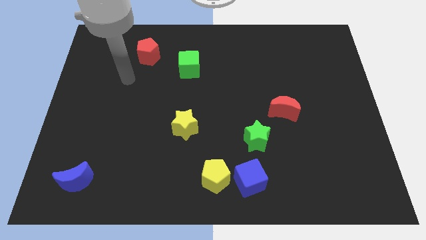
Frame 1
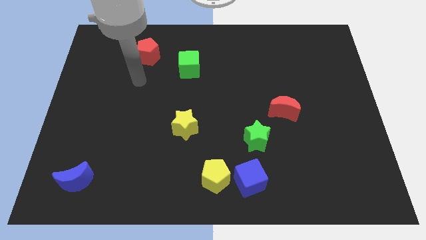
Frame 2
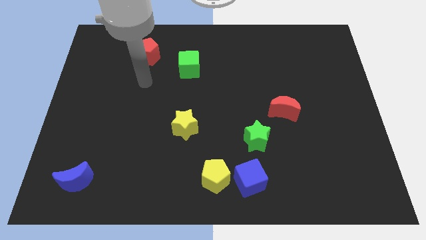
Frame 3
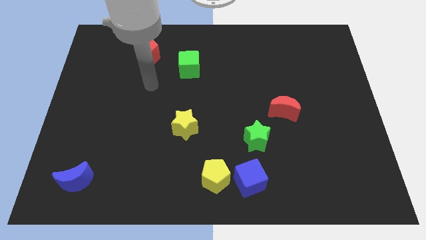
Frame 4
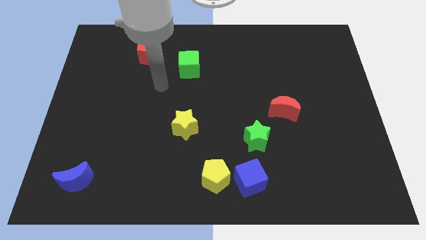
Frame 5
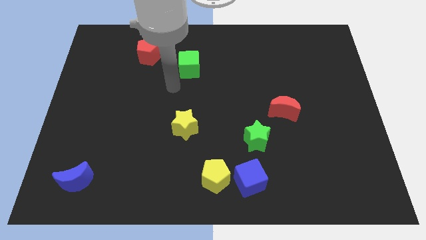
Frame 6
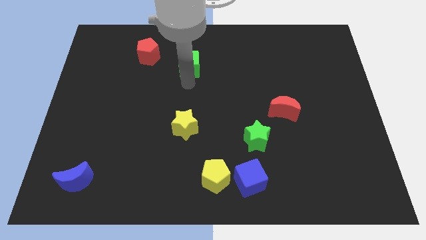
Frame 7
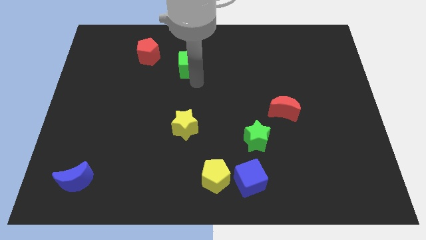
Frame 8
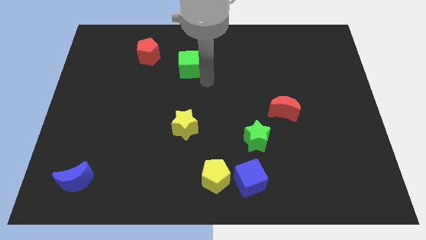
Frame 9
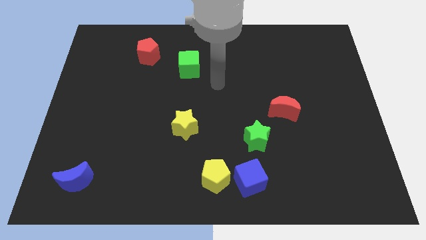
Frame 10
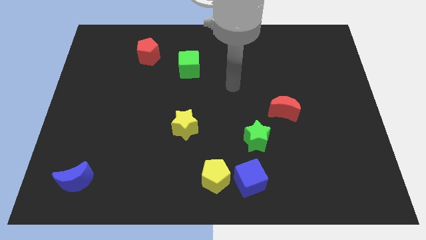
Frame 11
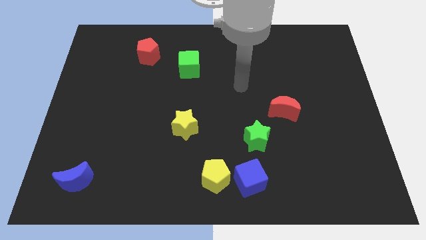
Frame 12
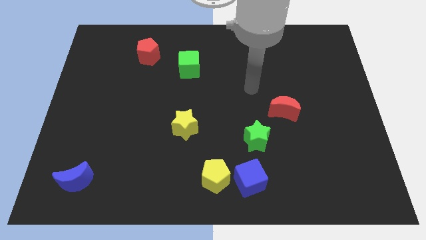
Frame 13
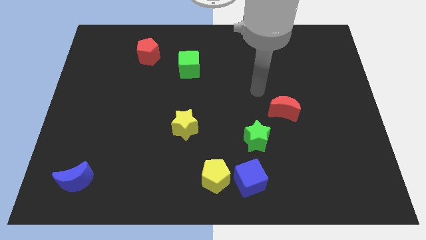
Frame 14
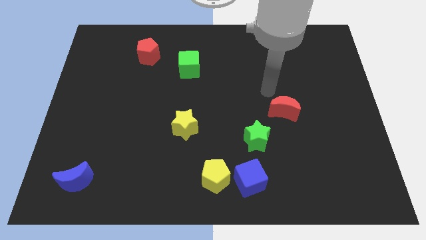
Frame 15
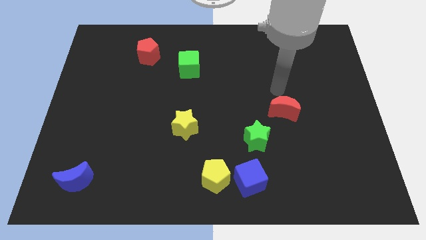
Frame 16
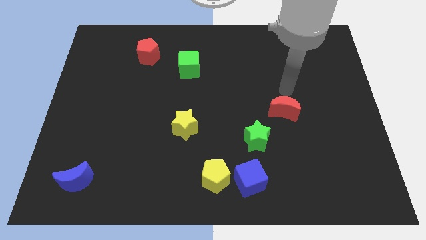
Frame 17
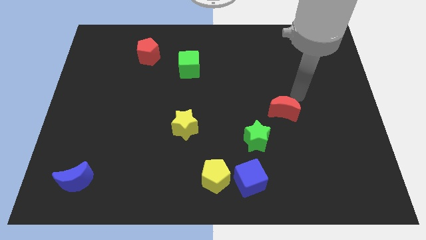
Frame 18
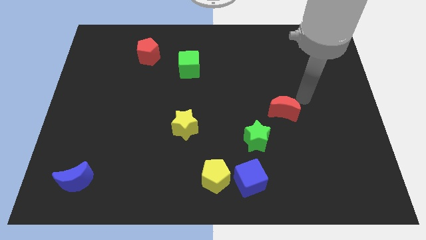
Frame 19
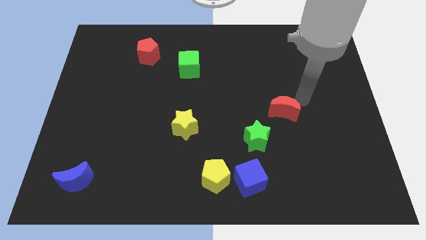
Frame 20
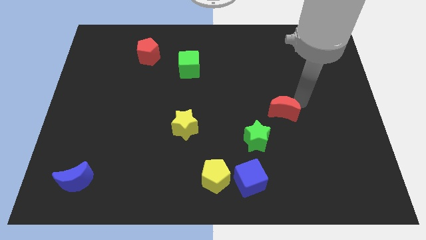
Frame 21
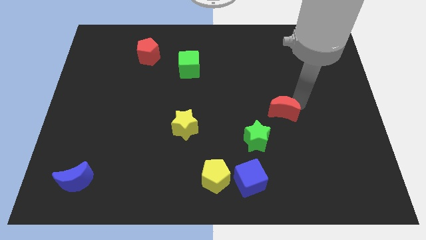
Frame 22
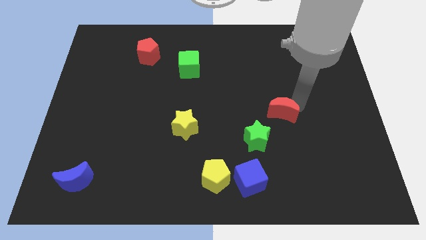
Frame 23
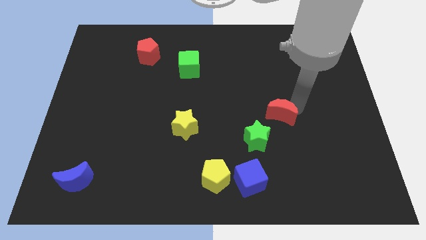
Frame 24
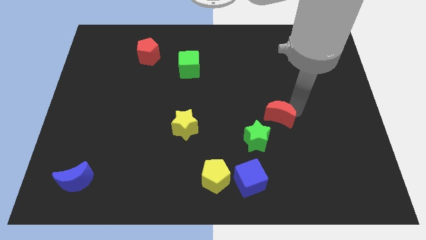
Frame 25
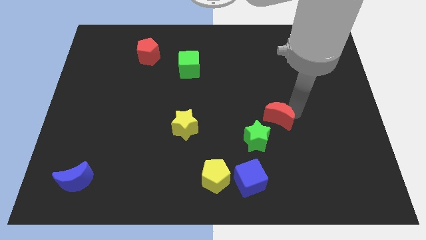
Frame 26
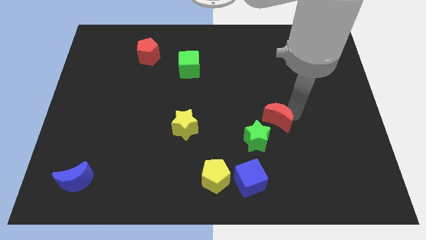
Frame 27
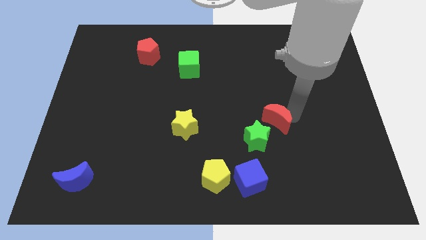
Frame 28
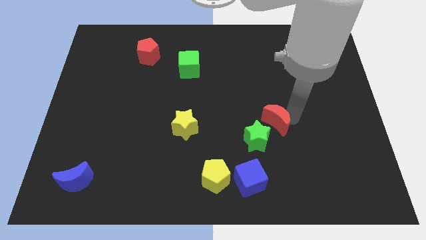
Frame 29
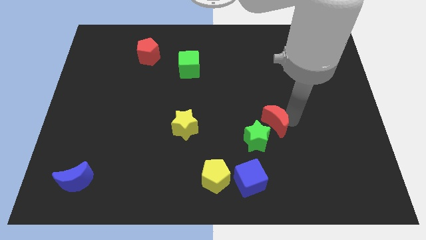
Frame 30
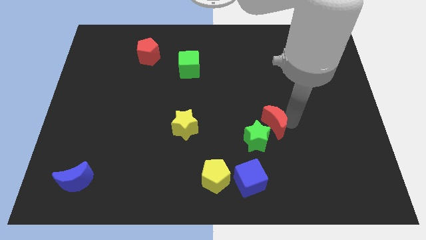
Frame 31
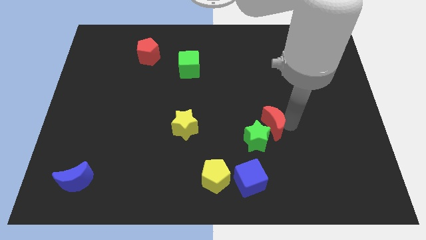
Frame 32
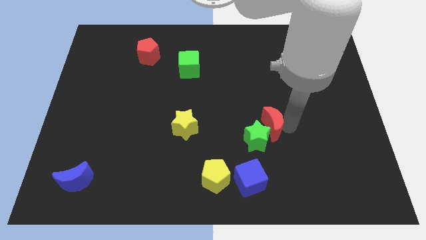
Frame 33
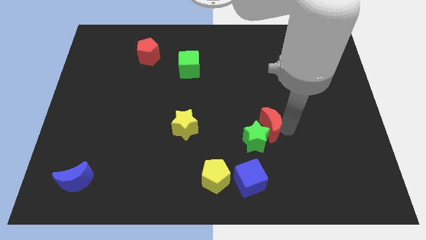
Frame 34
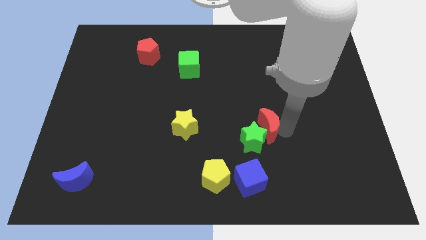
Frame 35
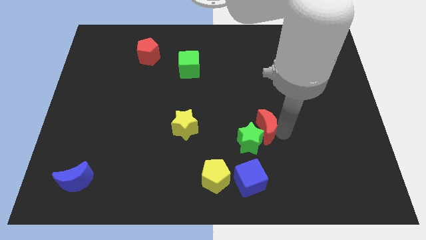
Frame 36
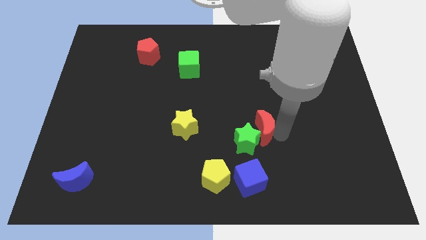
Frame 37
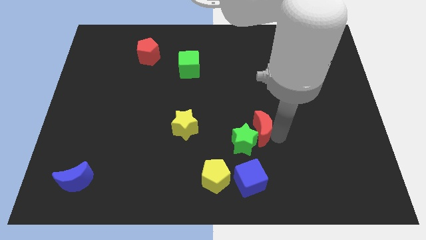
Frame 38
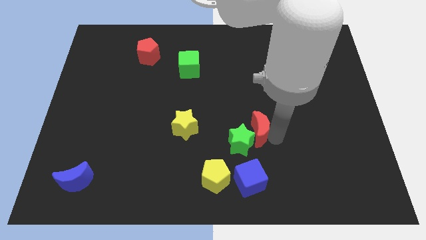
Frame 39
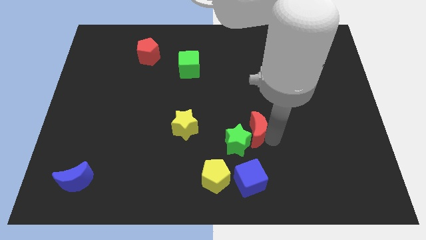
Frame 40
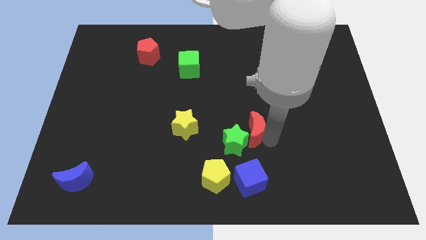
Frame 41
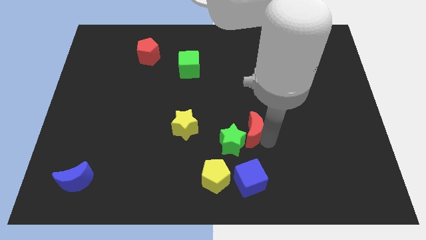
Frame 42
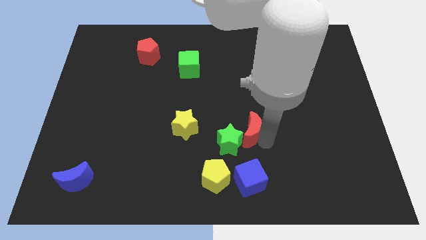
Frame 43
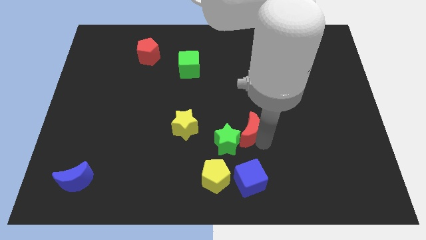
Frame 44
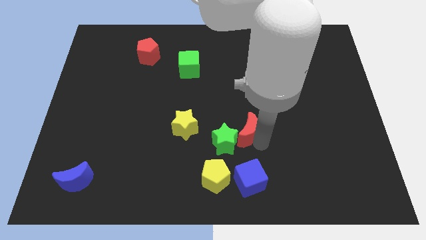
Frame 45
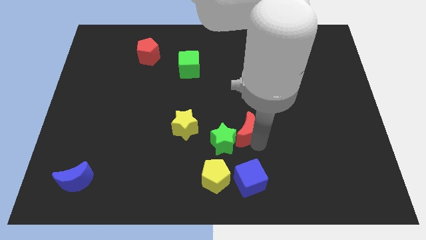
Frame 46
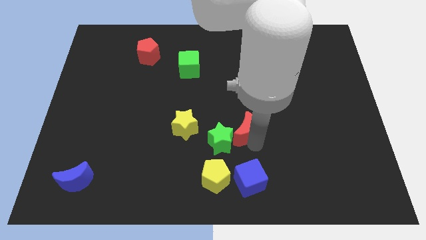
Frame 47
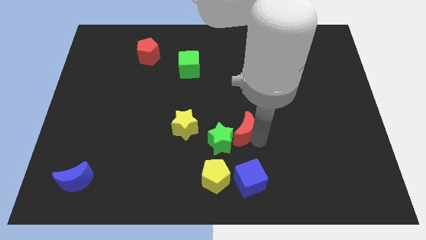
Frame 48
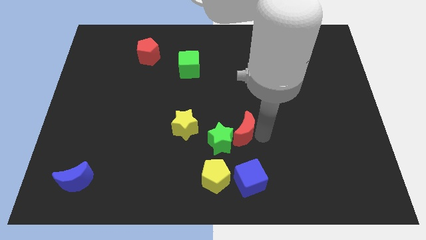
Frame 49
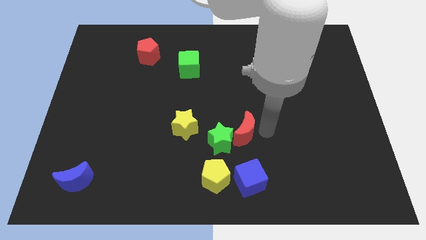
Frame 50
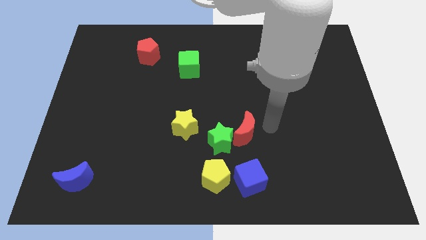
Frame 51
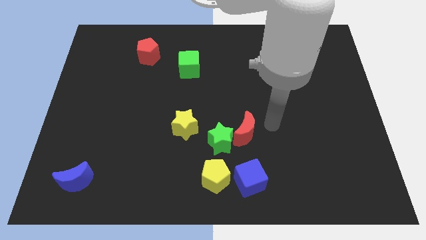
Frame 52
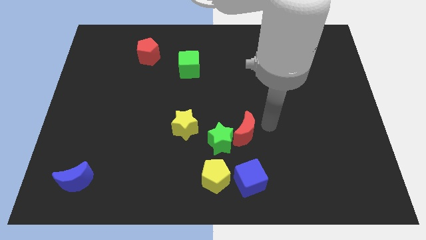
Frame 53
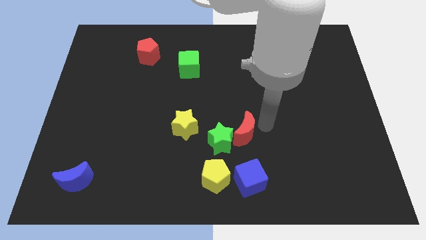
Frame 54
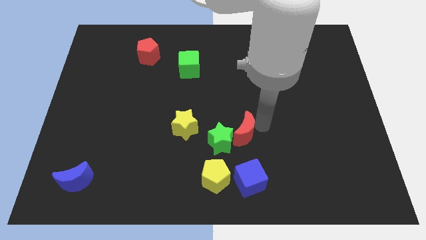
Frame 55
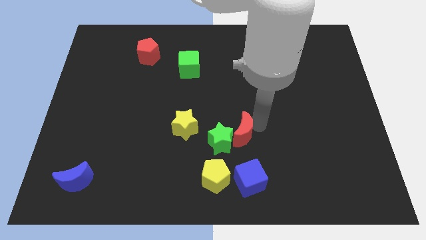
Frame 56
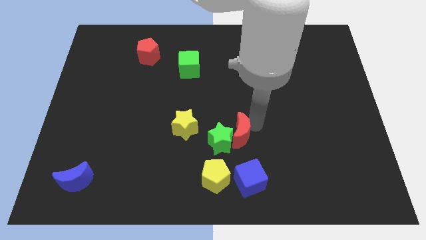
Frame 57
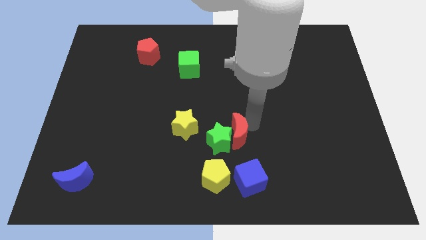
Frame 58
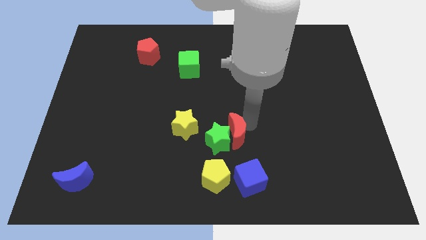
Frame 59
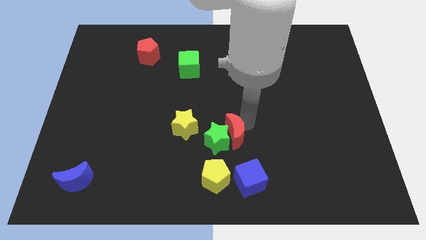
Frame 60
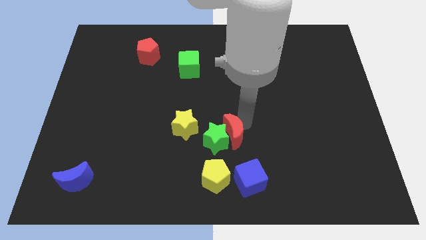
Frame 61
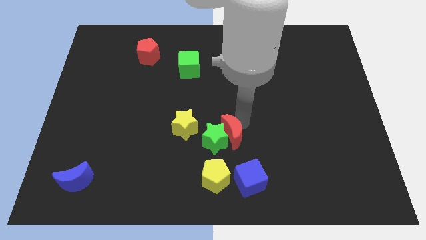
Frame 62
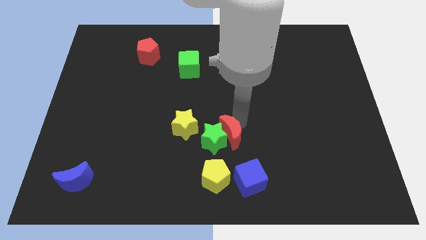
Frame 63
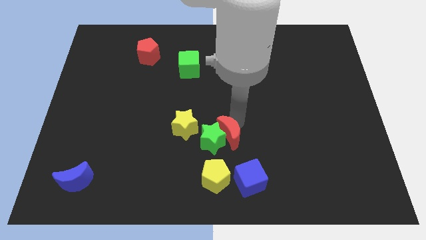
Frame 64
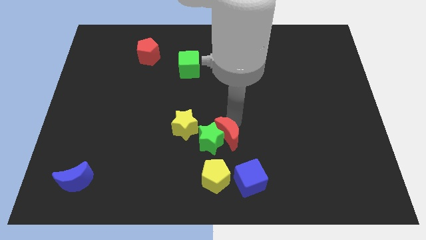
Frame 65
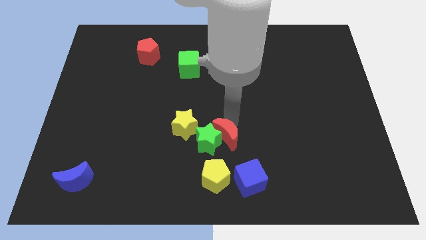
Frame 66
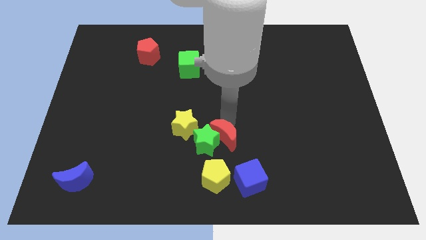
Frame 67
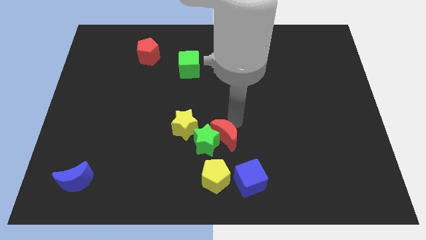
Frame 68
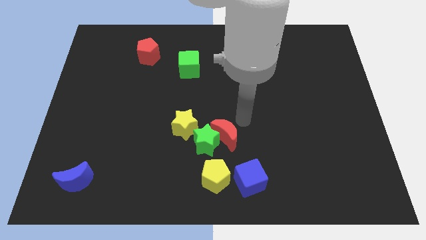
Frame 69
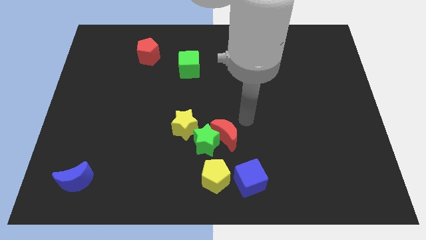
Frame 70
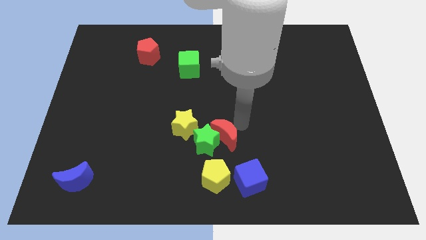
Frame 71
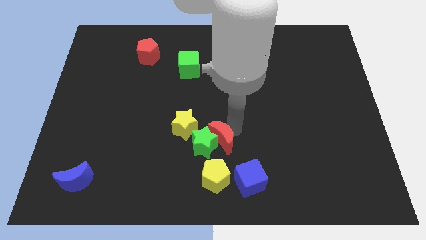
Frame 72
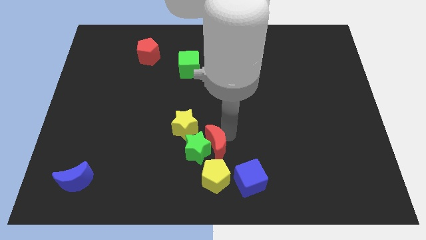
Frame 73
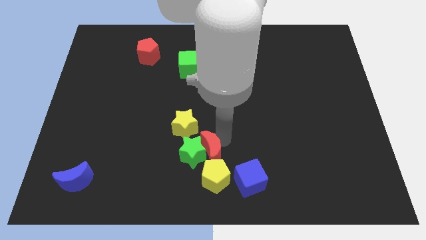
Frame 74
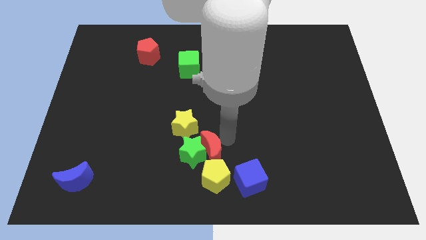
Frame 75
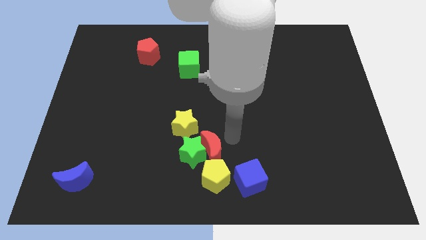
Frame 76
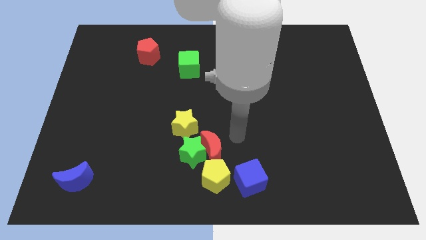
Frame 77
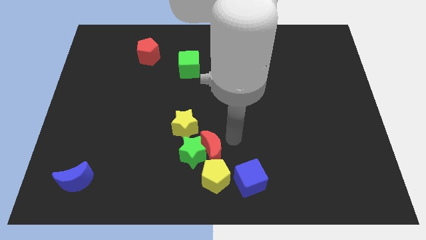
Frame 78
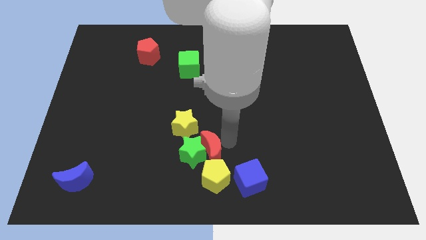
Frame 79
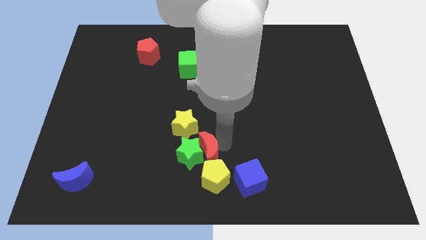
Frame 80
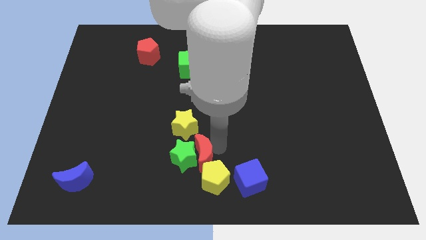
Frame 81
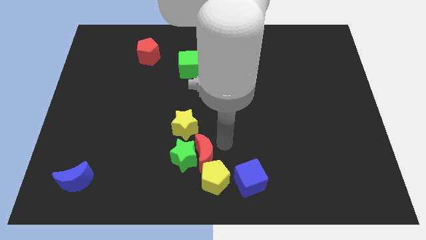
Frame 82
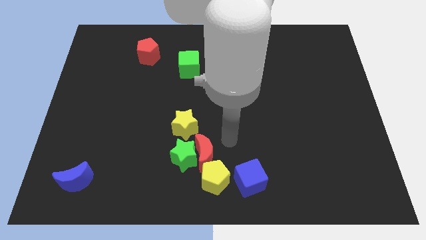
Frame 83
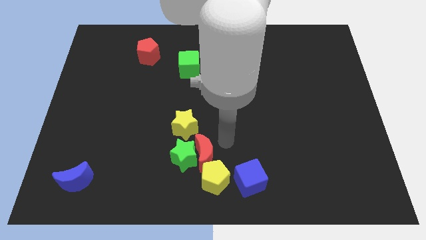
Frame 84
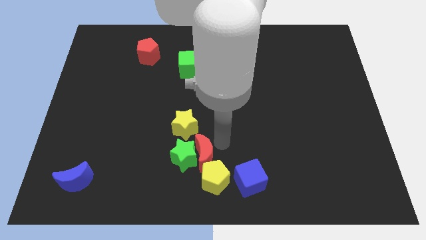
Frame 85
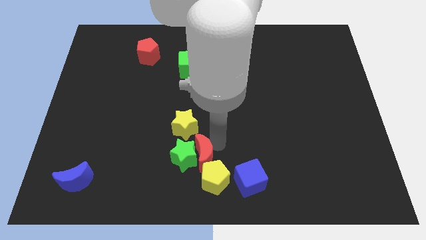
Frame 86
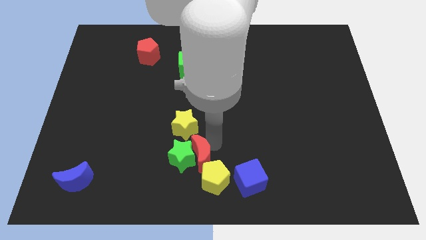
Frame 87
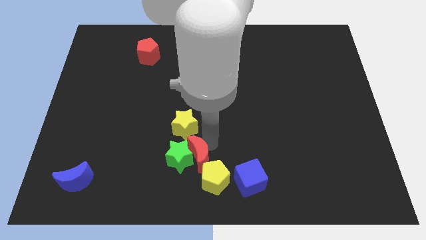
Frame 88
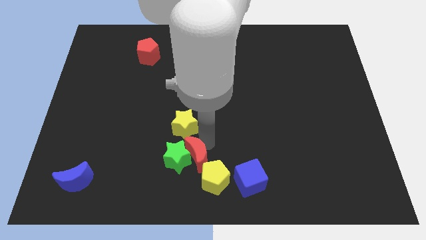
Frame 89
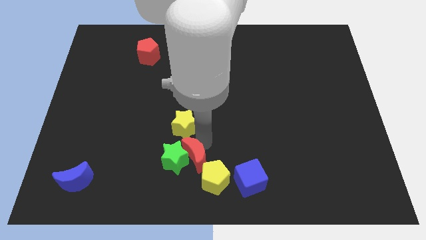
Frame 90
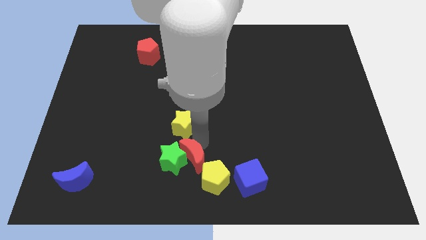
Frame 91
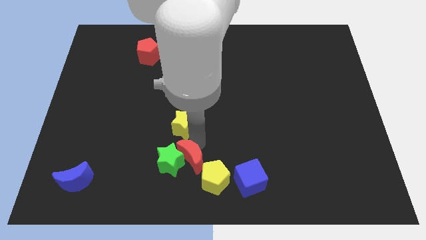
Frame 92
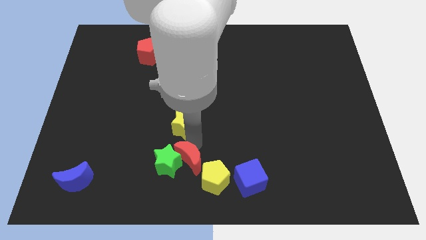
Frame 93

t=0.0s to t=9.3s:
slide the red moon left of the yellow pentagon
